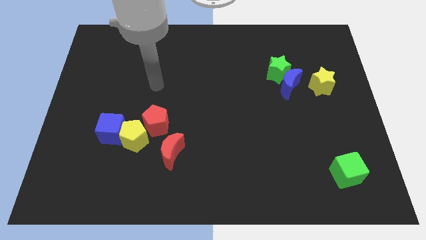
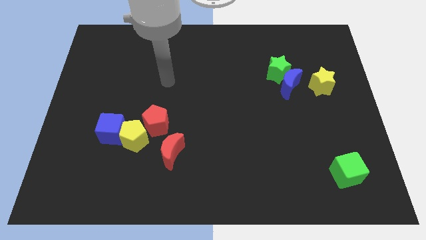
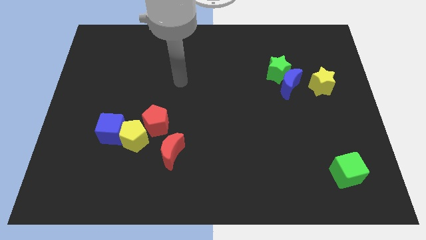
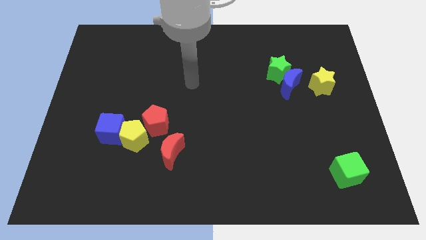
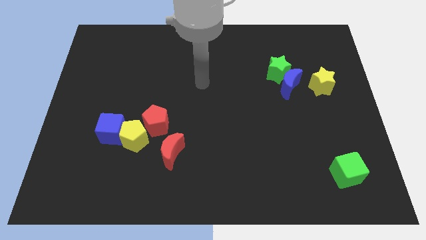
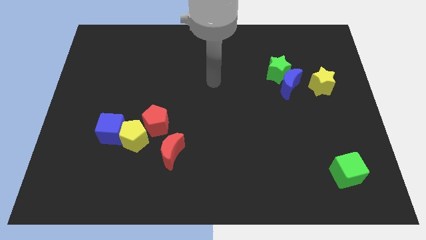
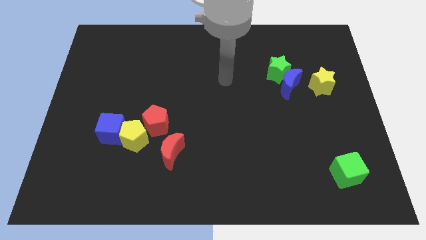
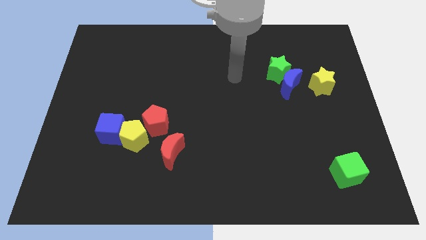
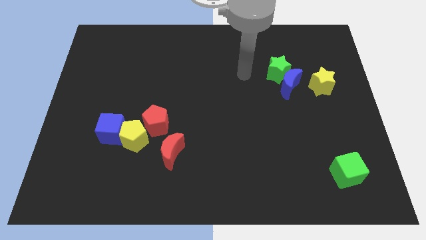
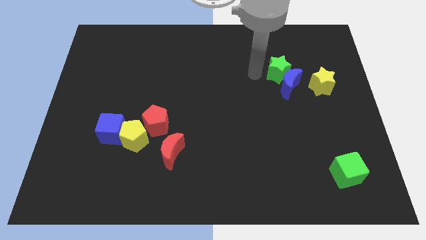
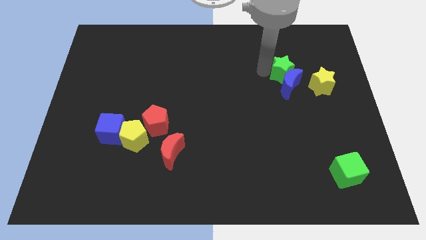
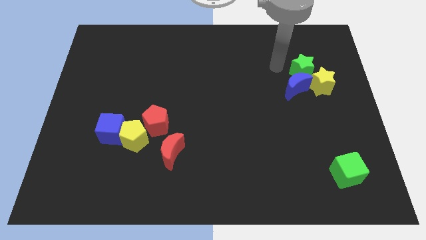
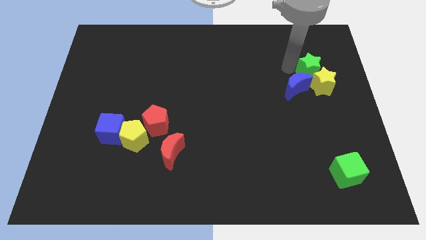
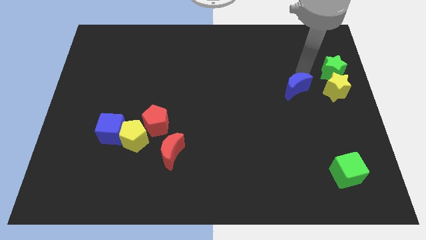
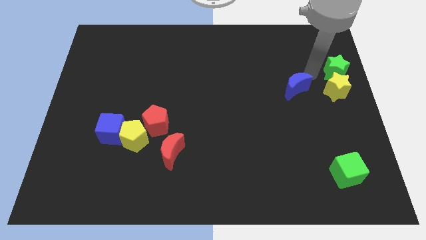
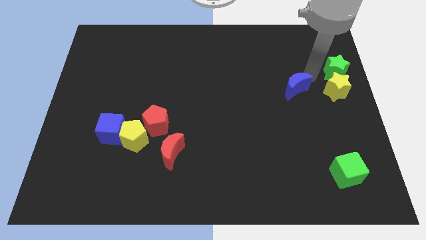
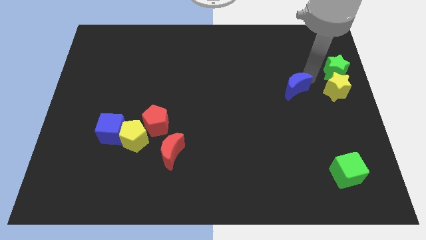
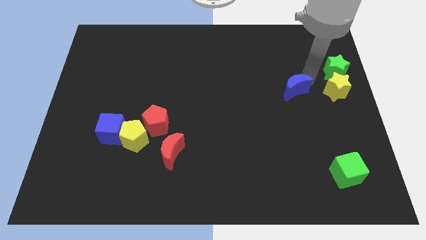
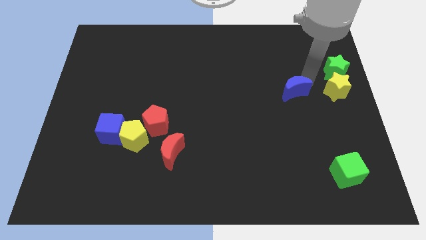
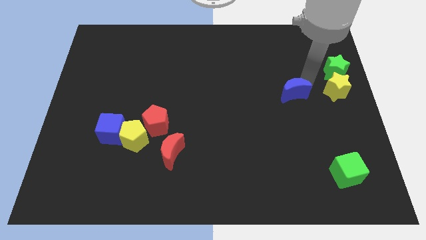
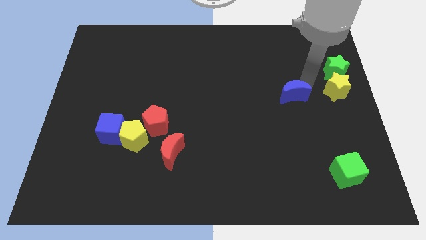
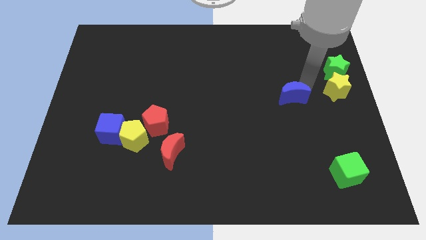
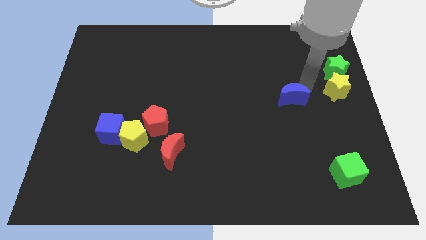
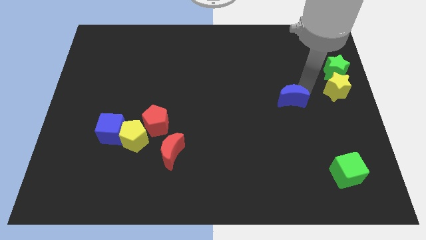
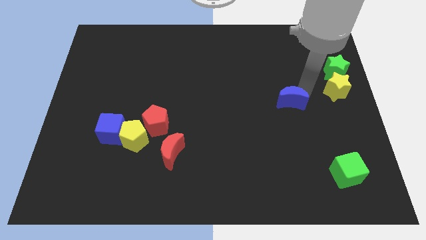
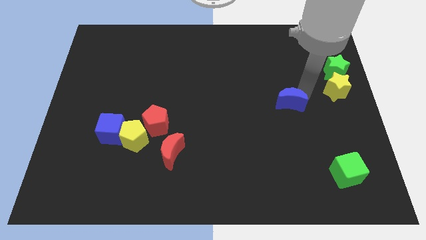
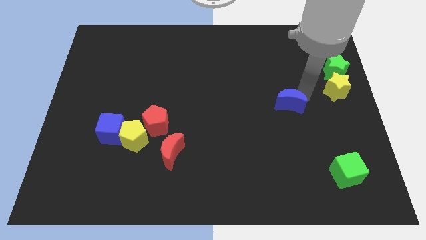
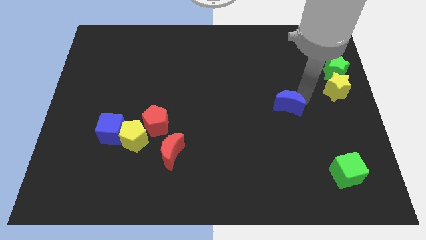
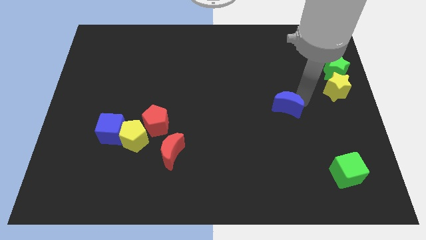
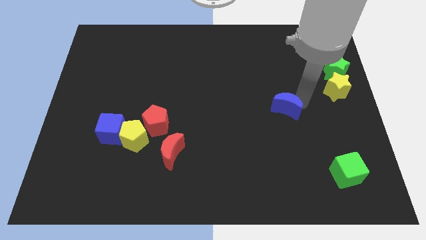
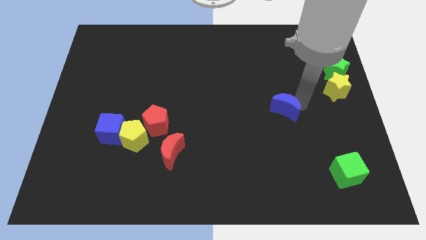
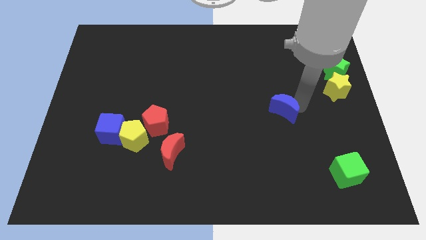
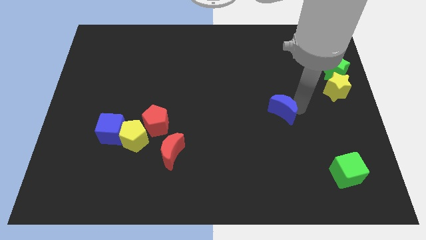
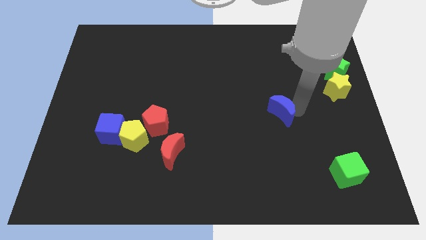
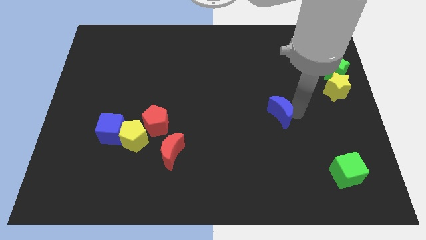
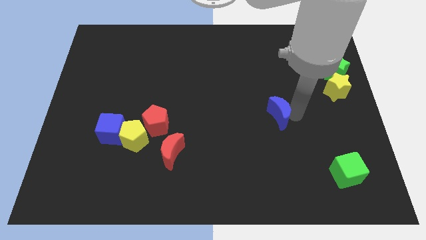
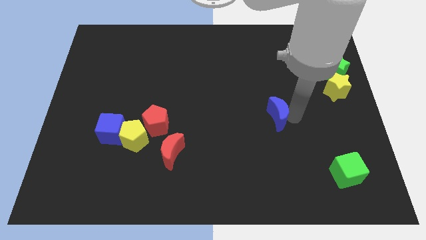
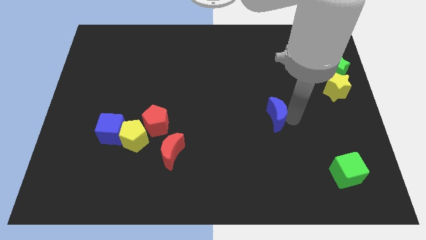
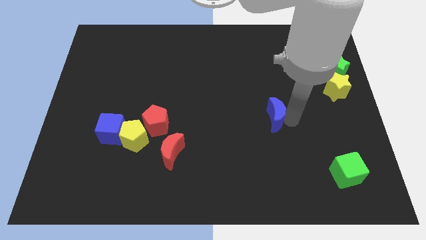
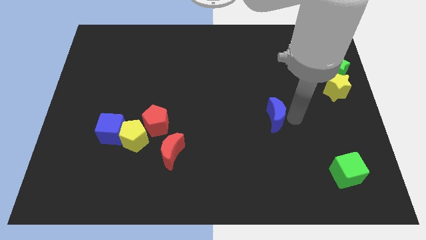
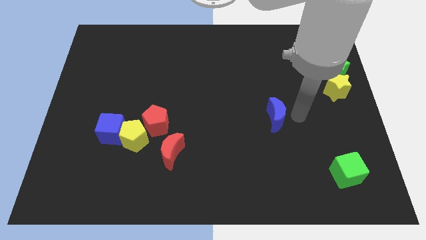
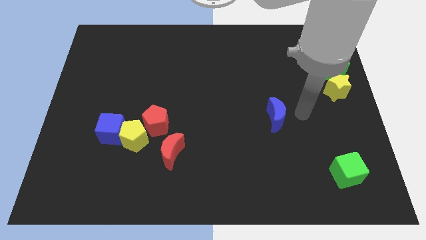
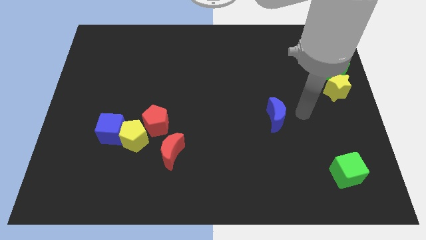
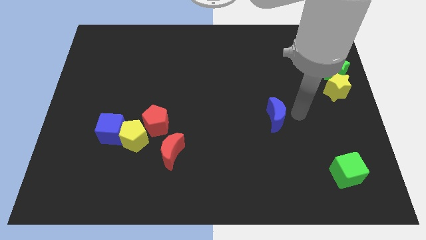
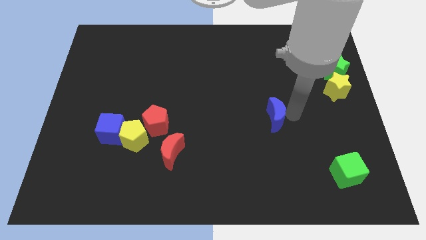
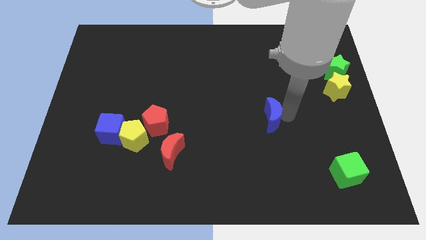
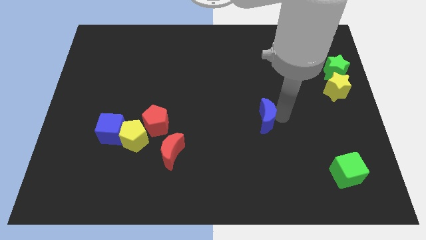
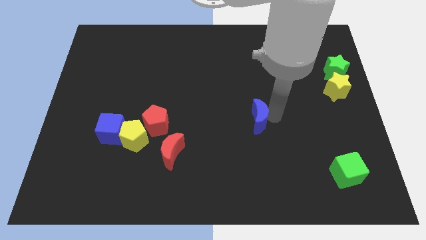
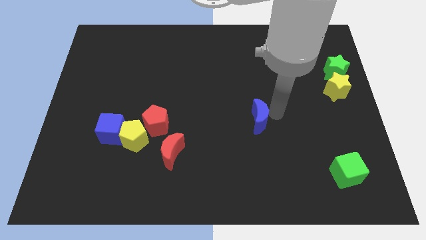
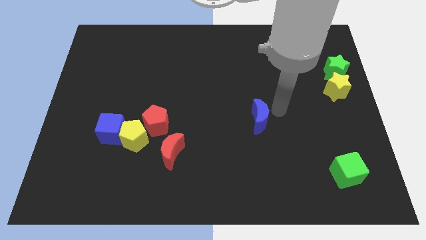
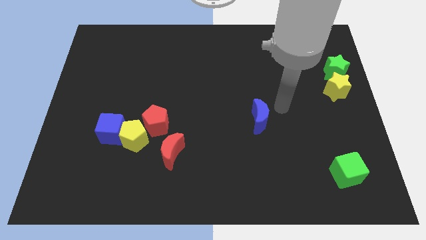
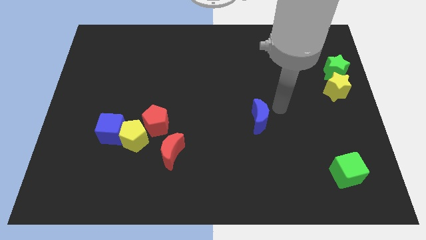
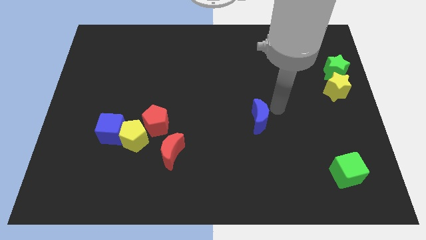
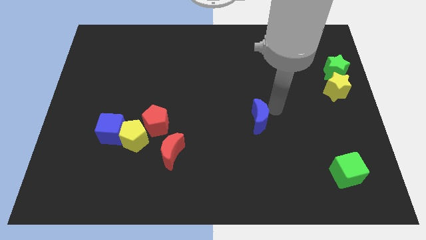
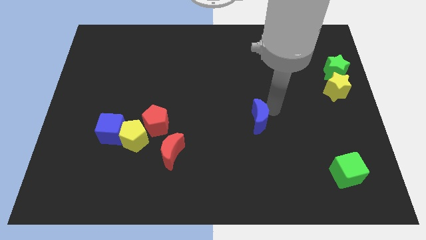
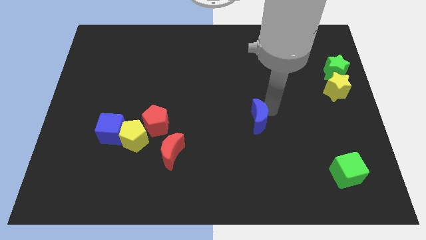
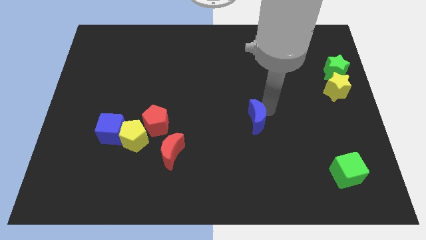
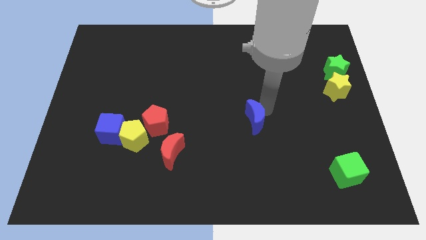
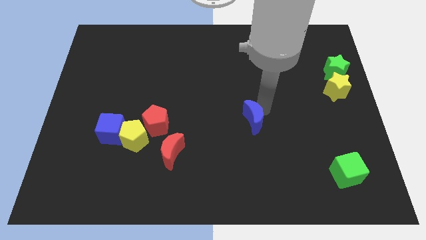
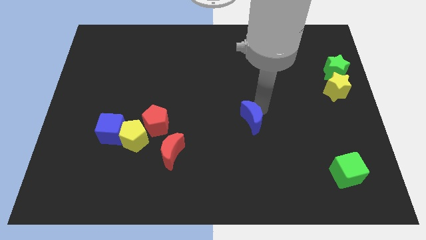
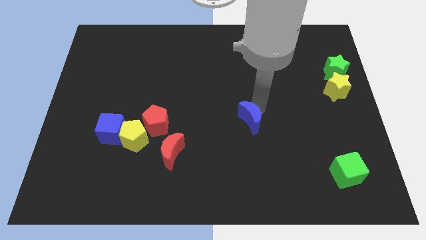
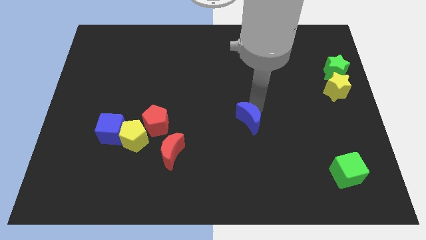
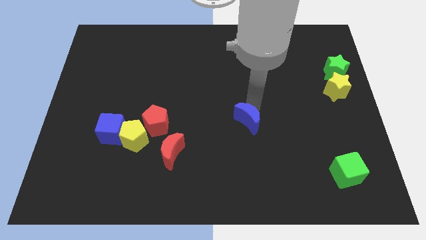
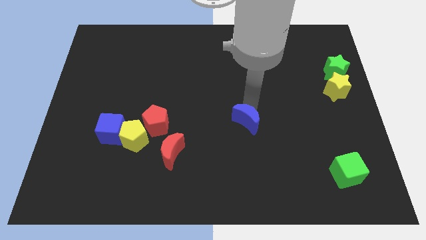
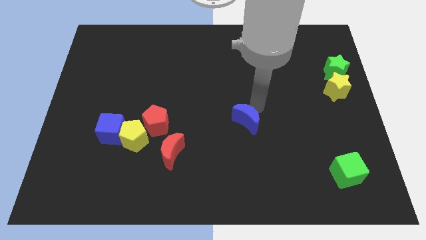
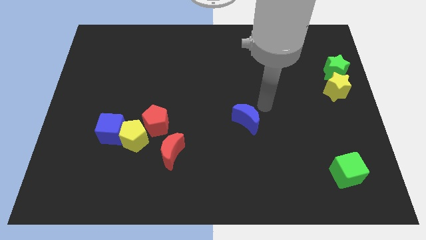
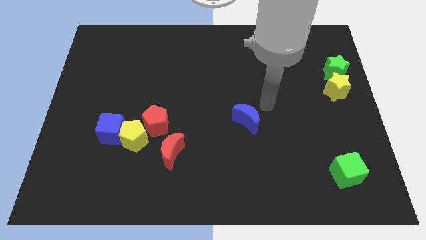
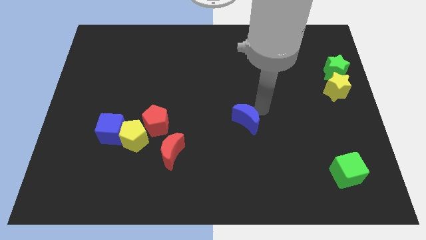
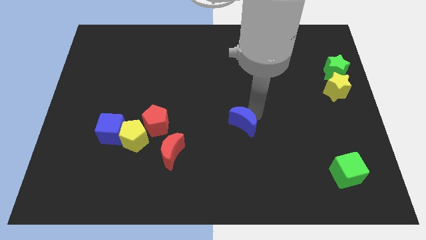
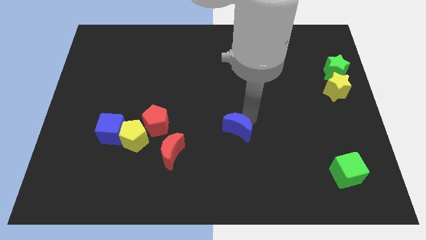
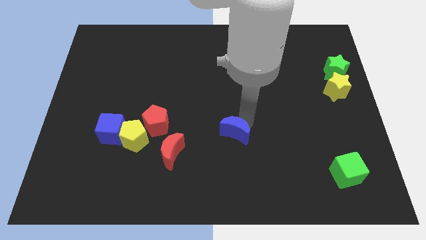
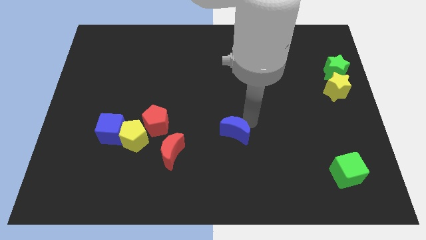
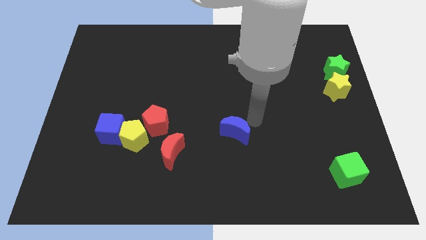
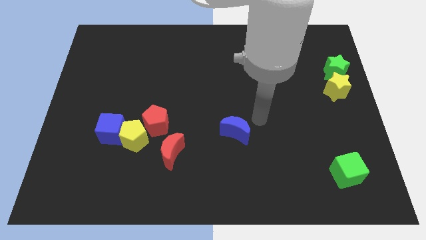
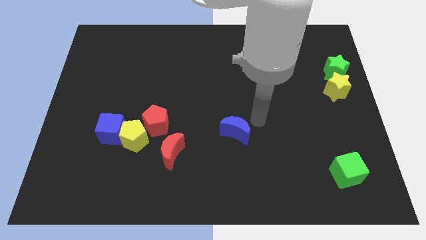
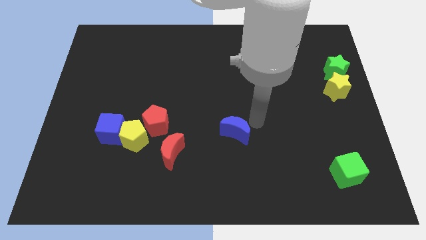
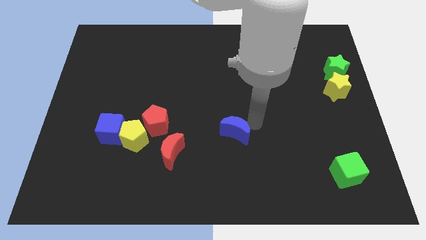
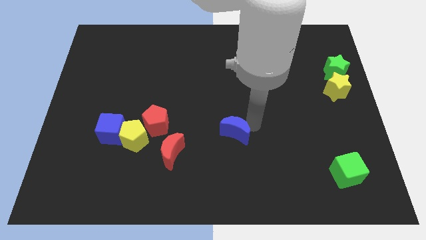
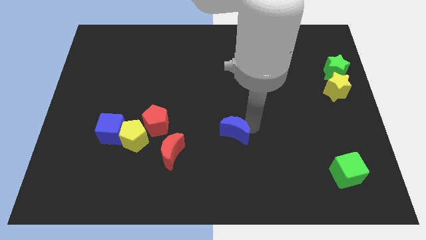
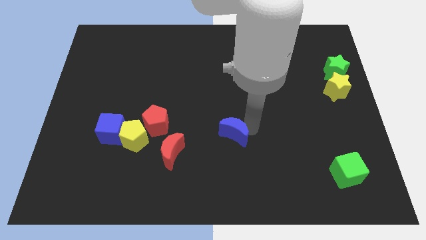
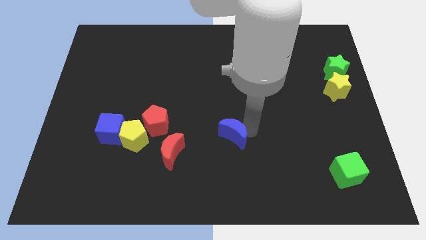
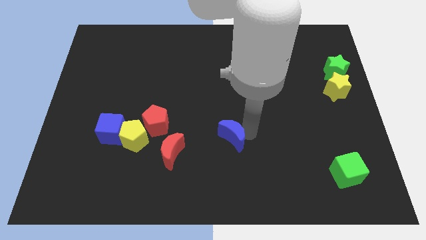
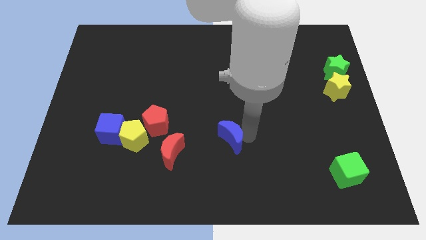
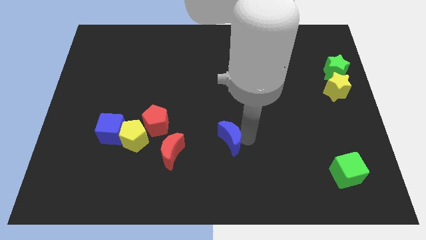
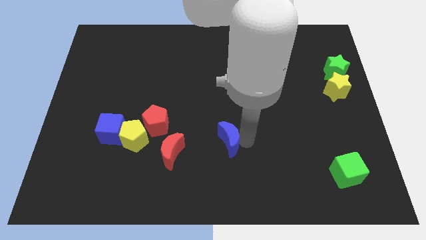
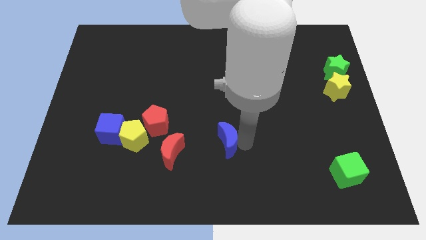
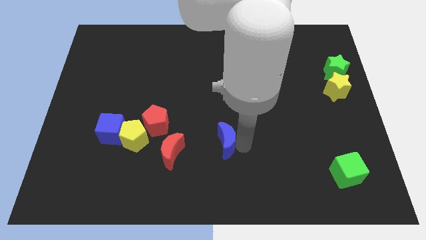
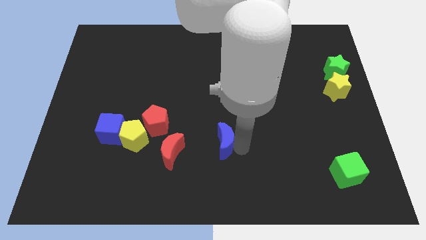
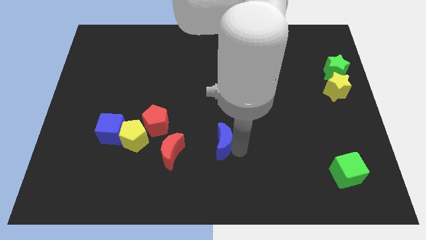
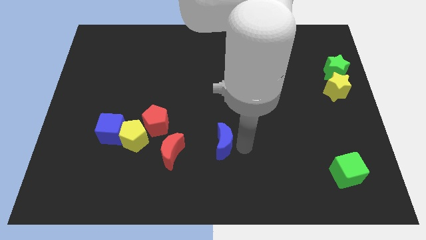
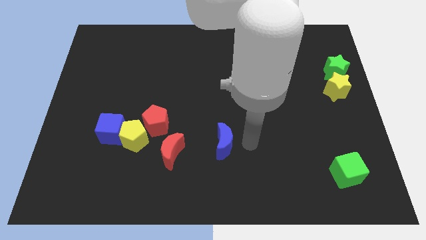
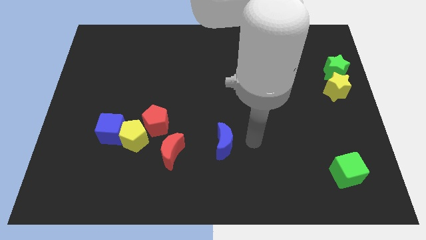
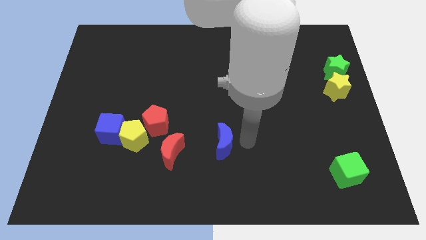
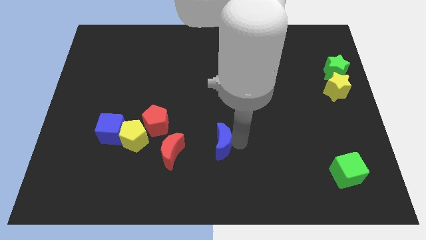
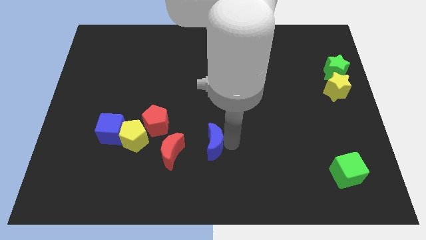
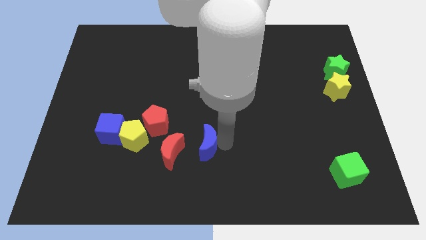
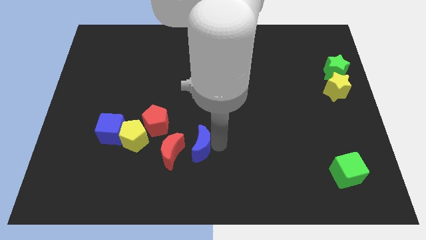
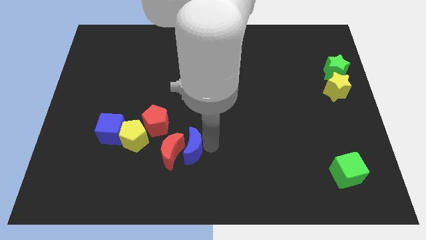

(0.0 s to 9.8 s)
push the blue moon towards the red moon
